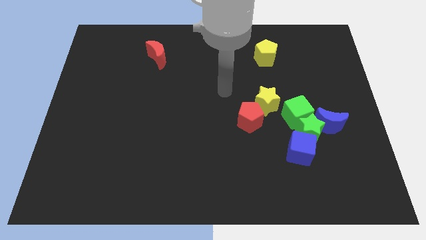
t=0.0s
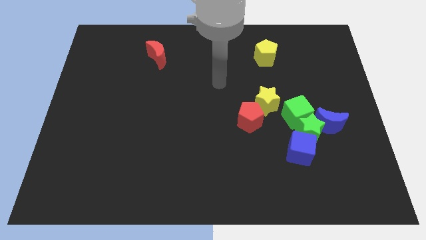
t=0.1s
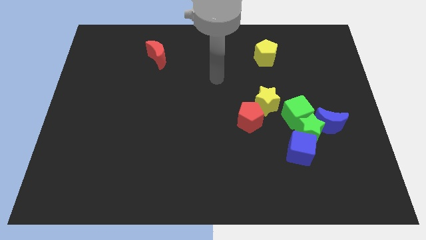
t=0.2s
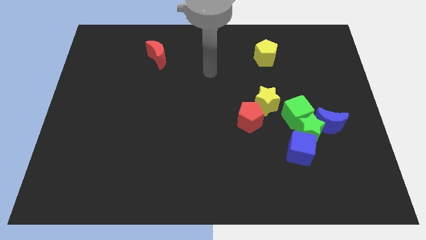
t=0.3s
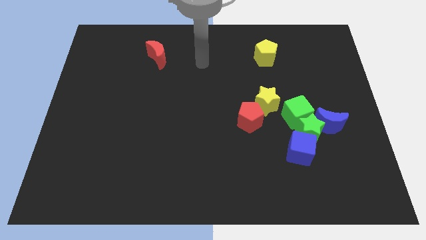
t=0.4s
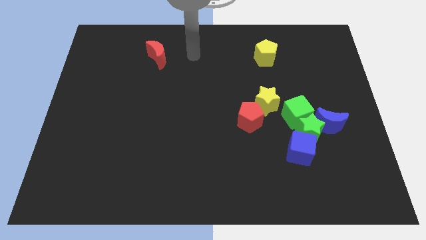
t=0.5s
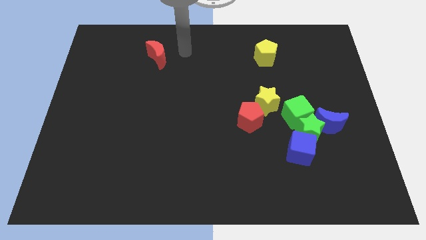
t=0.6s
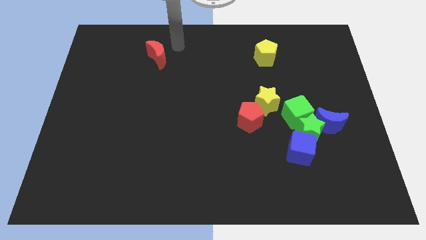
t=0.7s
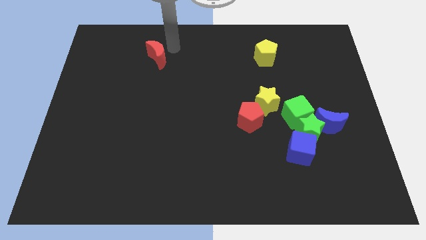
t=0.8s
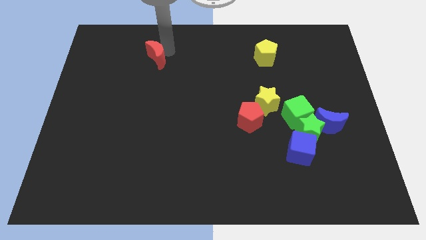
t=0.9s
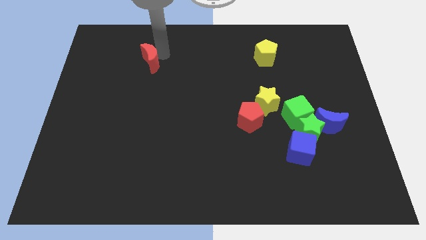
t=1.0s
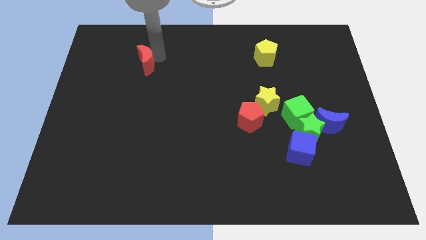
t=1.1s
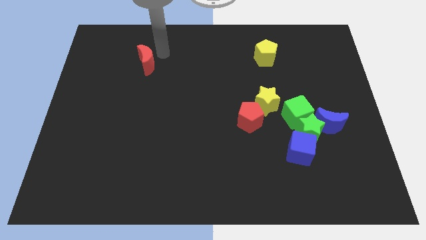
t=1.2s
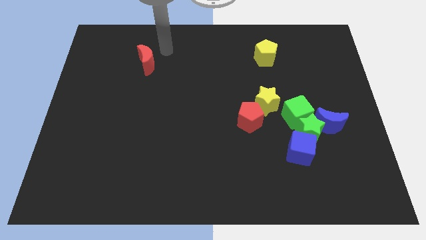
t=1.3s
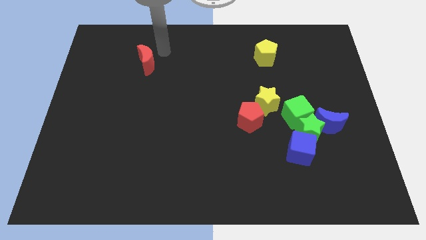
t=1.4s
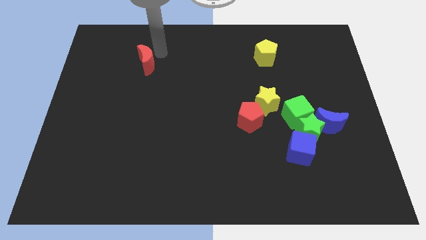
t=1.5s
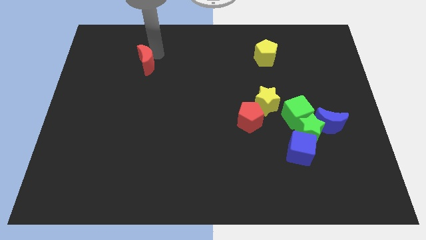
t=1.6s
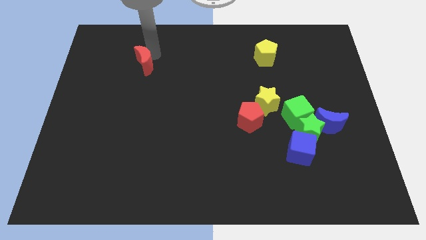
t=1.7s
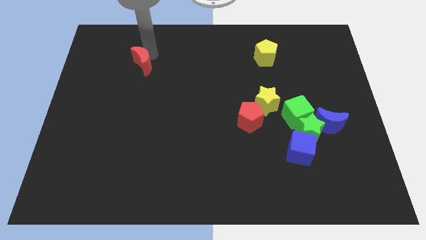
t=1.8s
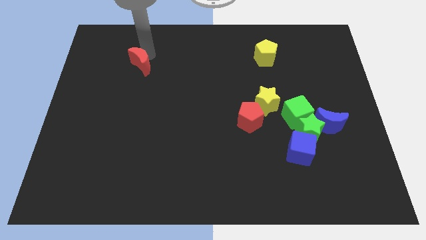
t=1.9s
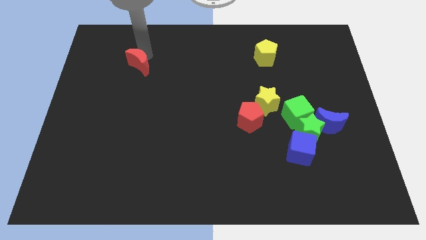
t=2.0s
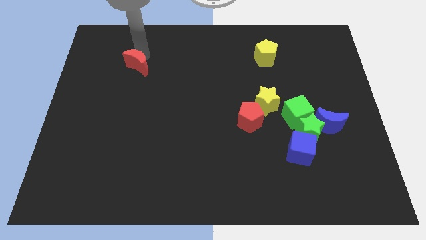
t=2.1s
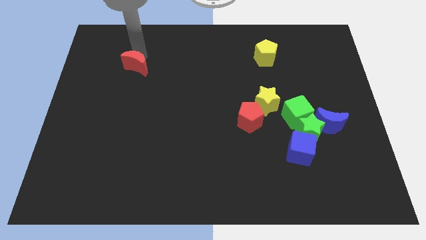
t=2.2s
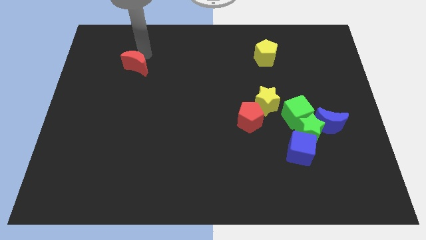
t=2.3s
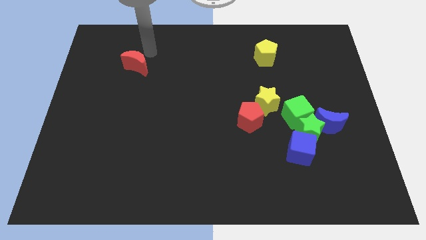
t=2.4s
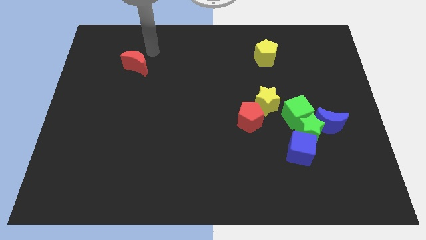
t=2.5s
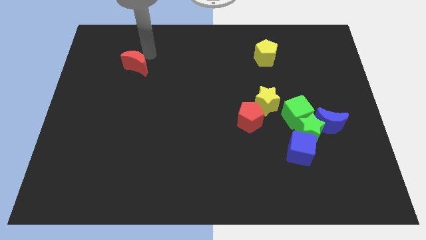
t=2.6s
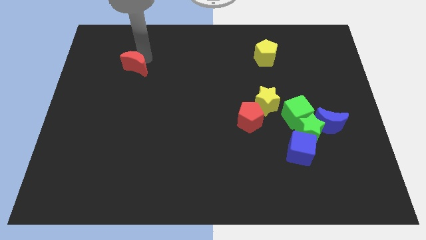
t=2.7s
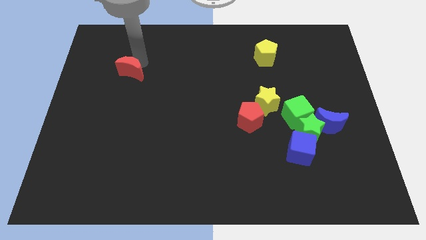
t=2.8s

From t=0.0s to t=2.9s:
move the red moon down and to the left diagonally somewhat

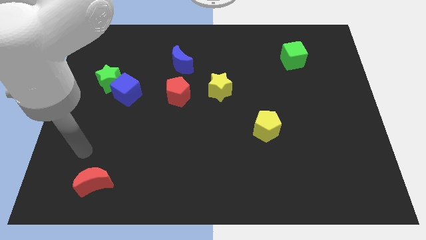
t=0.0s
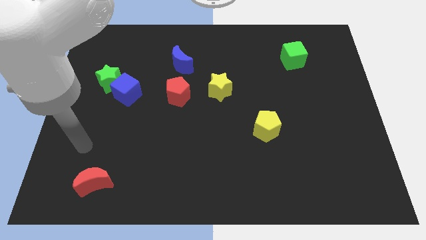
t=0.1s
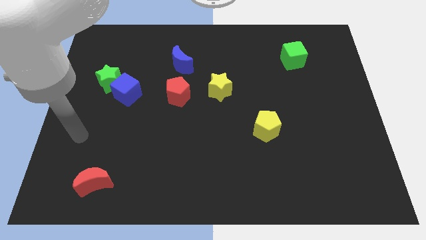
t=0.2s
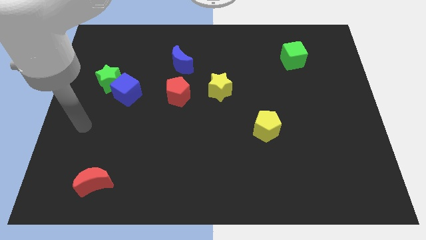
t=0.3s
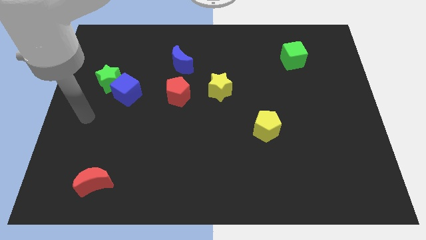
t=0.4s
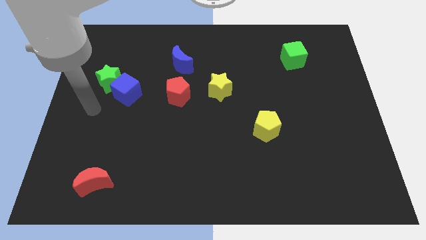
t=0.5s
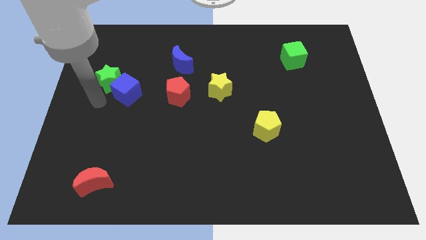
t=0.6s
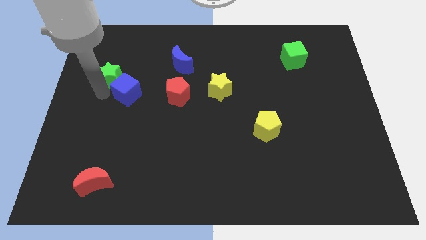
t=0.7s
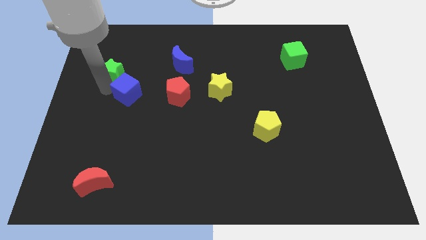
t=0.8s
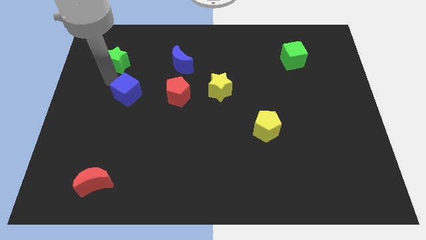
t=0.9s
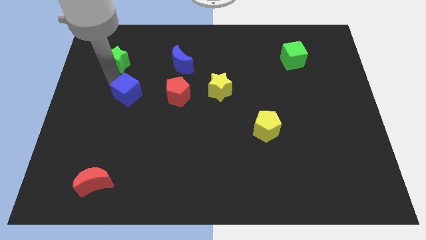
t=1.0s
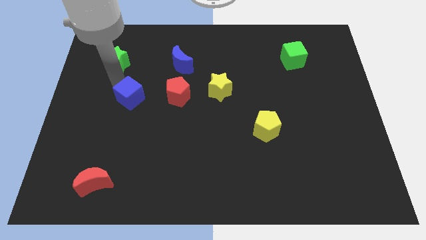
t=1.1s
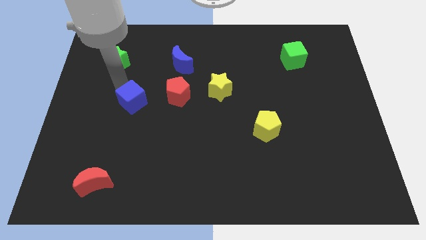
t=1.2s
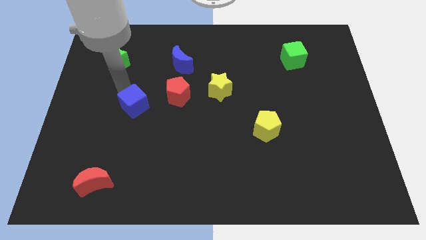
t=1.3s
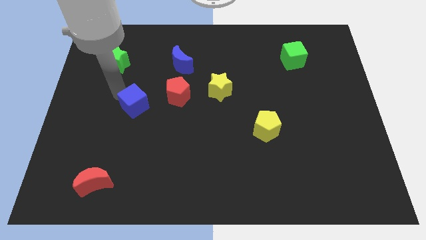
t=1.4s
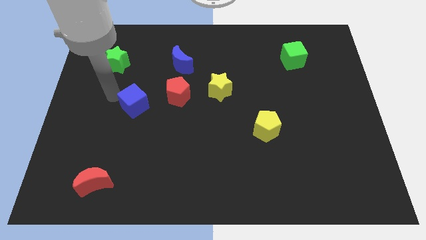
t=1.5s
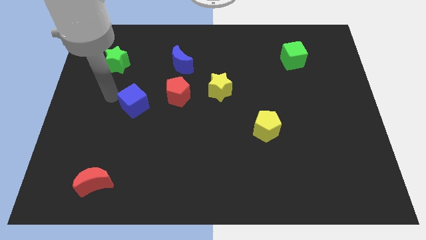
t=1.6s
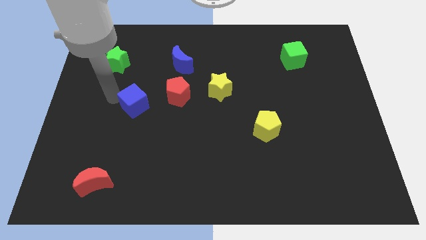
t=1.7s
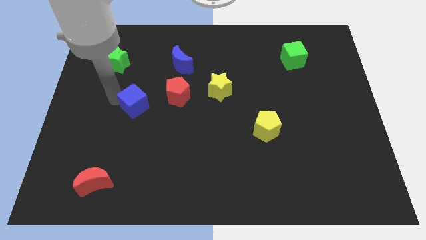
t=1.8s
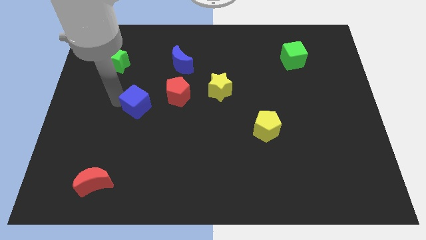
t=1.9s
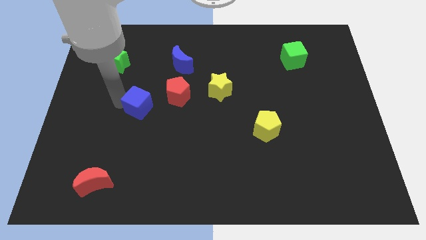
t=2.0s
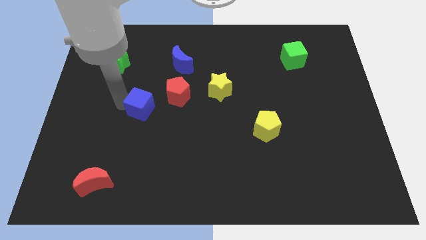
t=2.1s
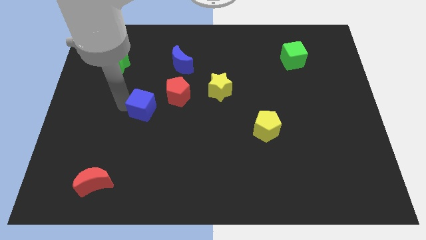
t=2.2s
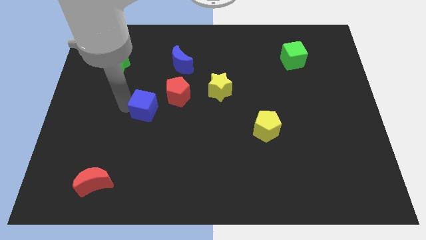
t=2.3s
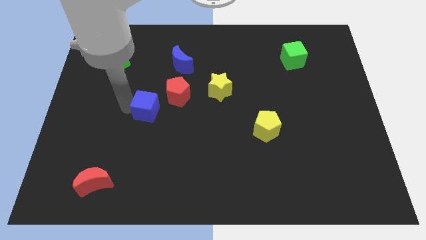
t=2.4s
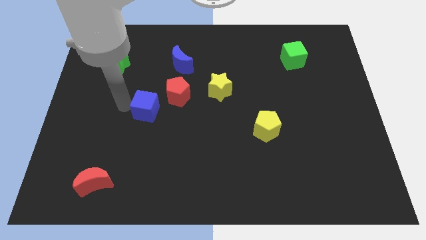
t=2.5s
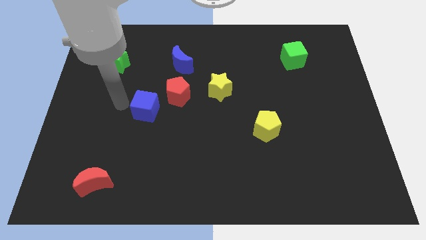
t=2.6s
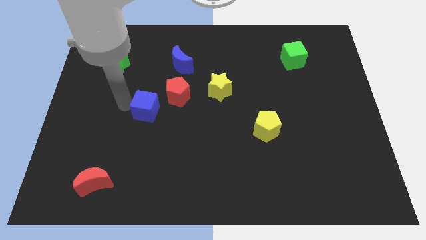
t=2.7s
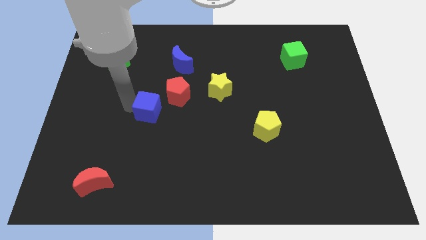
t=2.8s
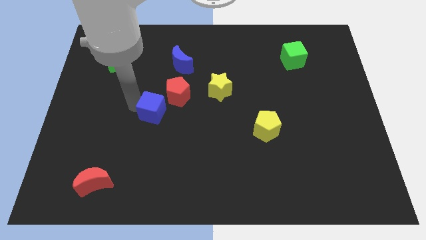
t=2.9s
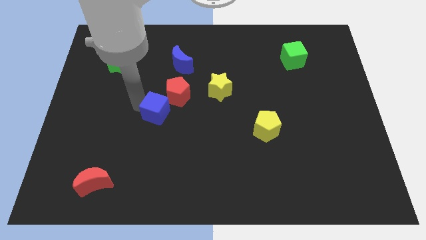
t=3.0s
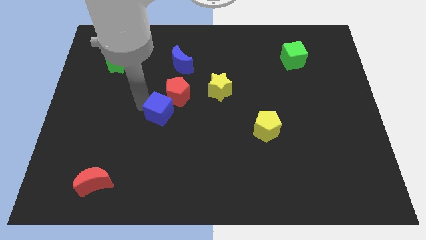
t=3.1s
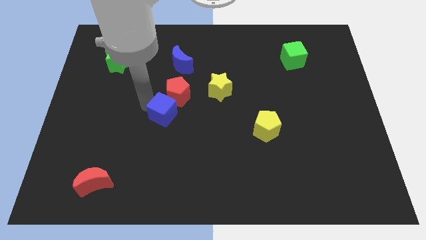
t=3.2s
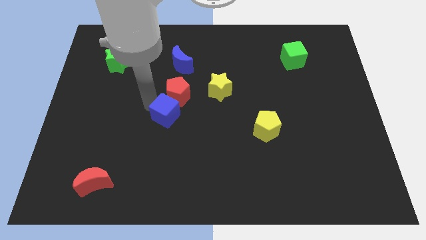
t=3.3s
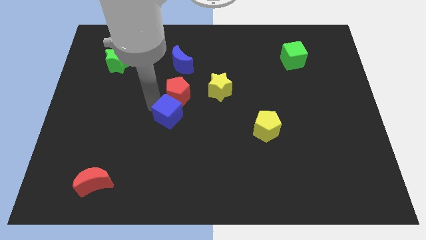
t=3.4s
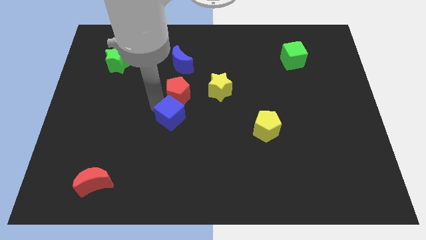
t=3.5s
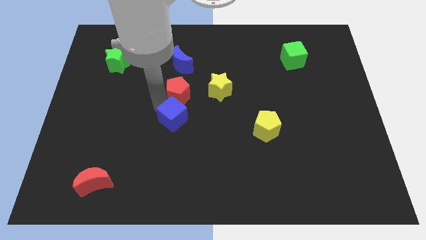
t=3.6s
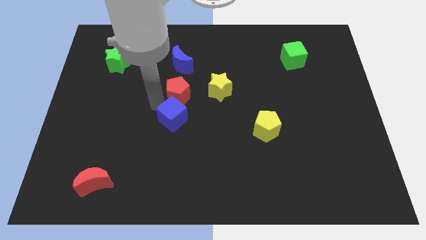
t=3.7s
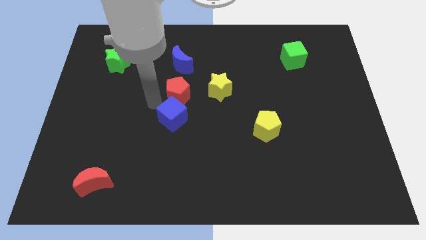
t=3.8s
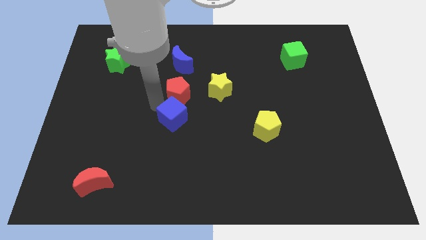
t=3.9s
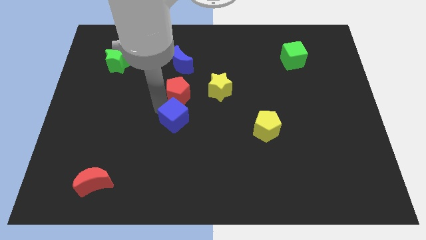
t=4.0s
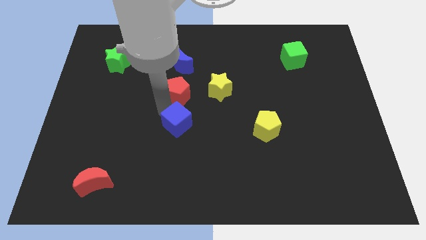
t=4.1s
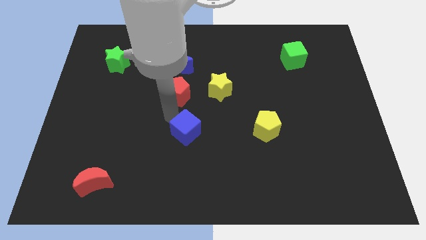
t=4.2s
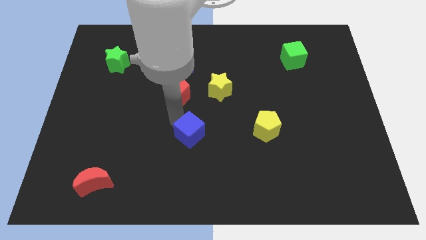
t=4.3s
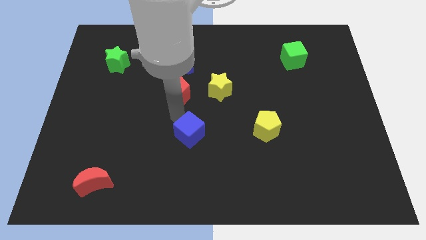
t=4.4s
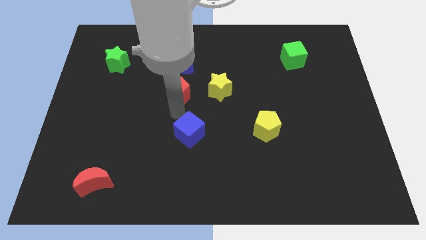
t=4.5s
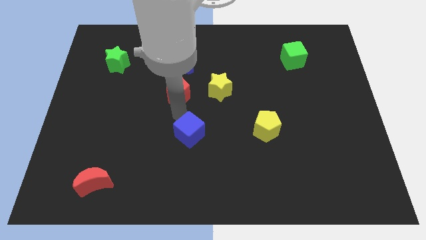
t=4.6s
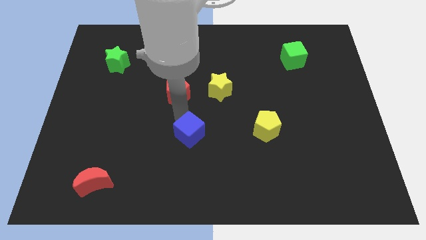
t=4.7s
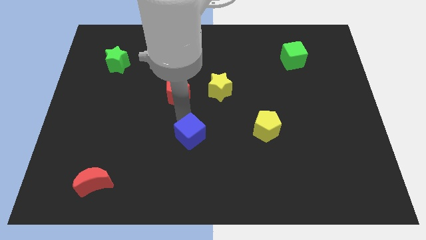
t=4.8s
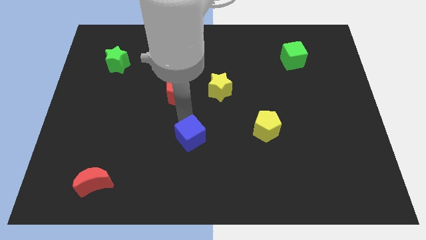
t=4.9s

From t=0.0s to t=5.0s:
move the blue cube downwards and then right

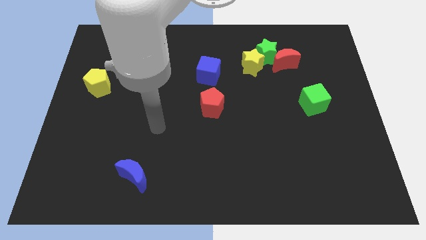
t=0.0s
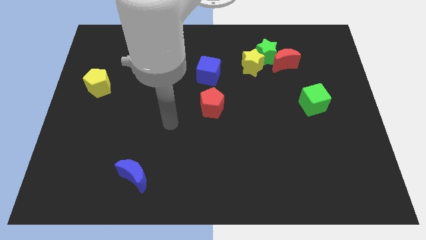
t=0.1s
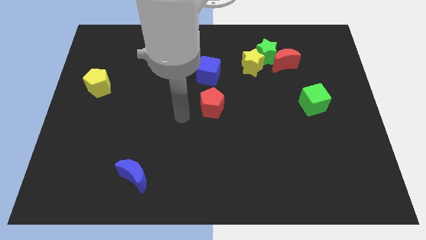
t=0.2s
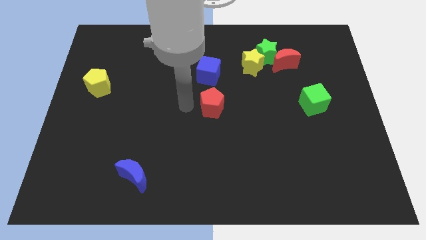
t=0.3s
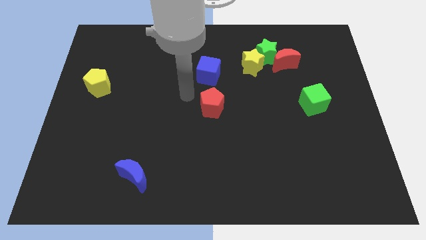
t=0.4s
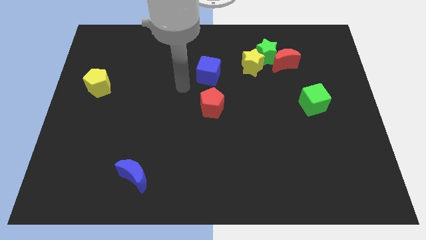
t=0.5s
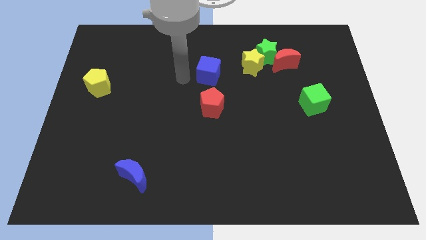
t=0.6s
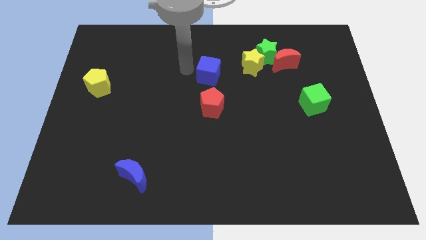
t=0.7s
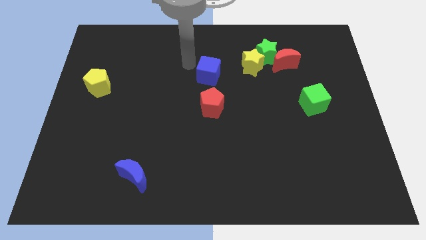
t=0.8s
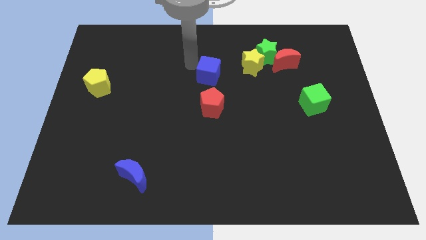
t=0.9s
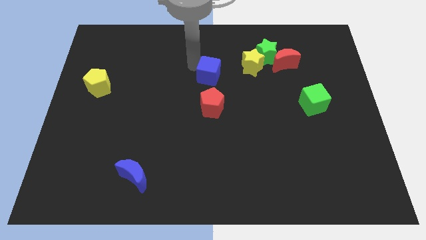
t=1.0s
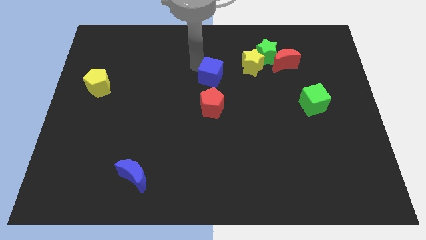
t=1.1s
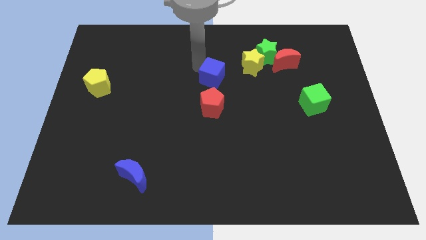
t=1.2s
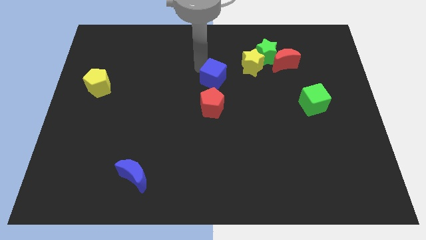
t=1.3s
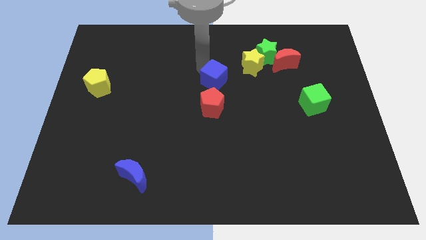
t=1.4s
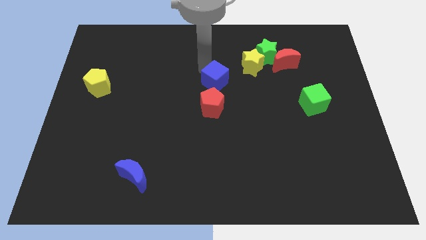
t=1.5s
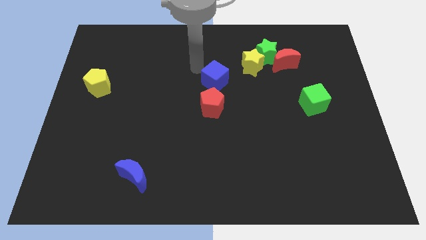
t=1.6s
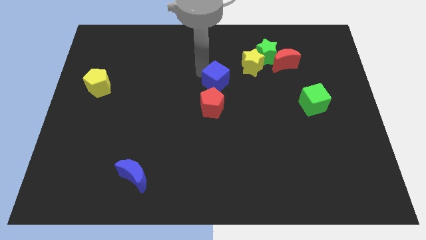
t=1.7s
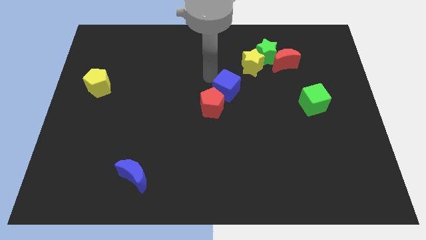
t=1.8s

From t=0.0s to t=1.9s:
push the blue cube somewhat diagonally down and right
